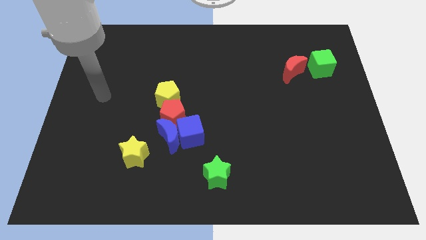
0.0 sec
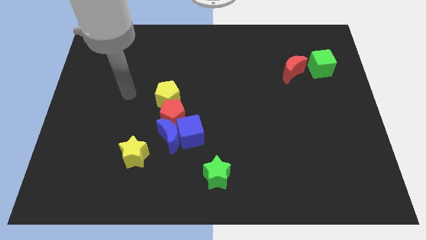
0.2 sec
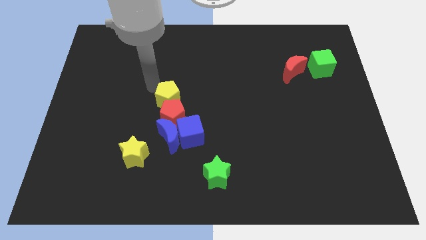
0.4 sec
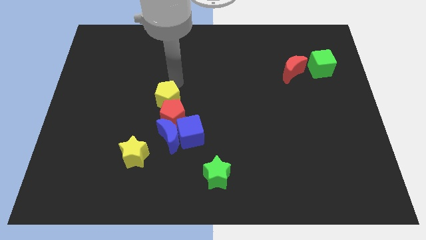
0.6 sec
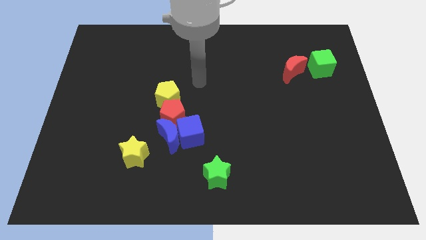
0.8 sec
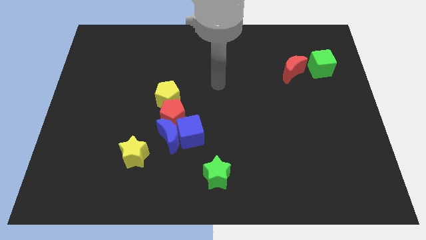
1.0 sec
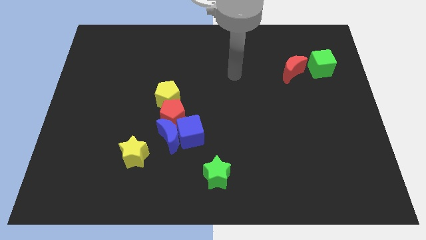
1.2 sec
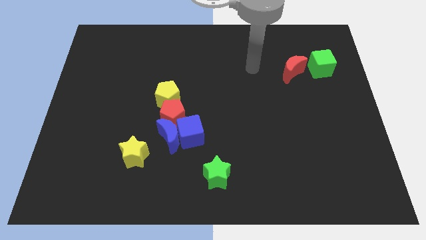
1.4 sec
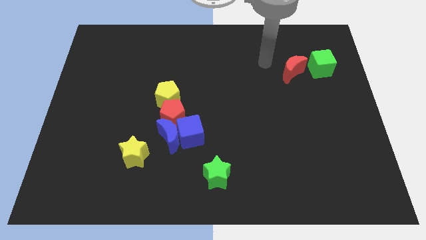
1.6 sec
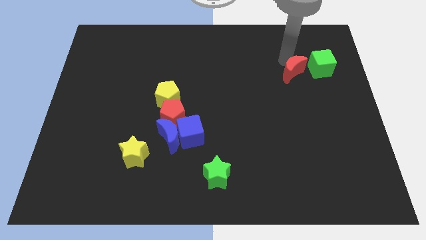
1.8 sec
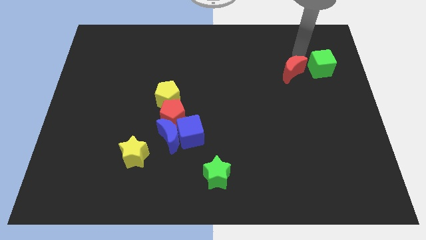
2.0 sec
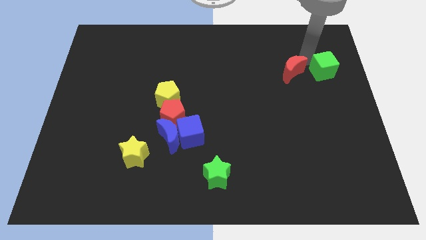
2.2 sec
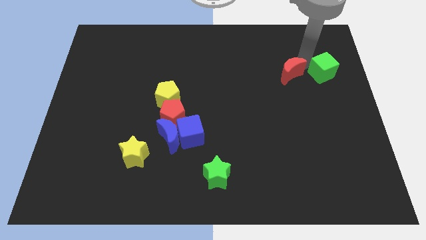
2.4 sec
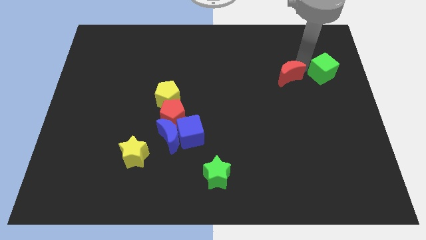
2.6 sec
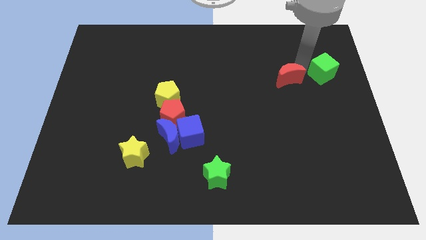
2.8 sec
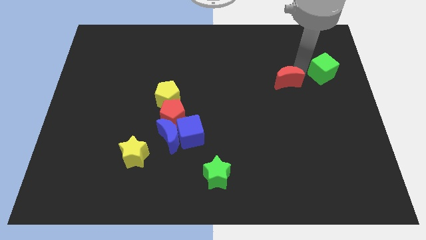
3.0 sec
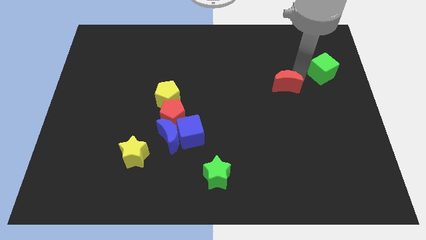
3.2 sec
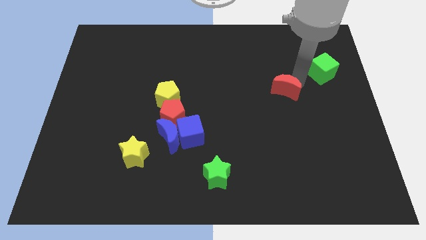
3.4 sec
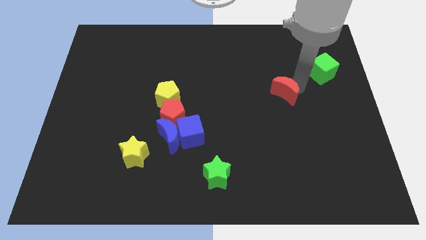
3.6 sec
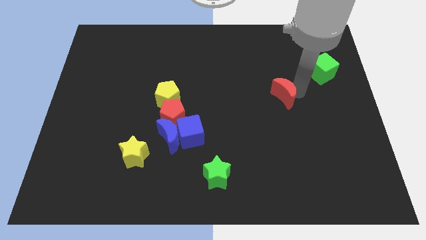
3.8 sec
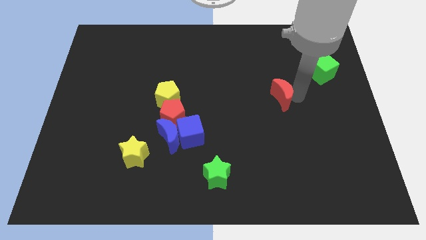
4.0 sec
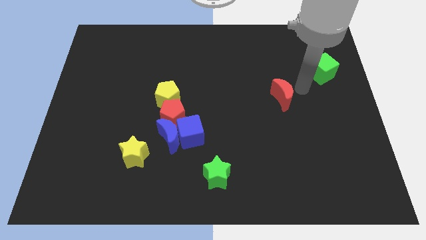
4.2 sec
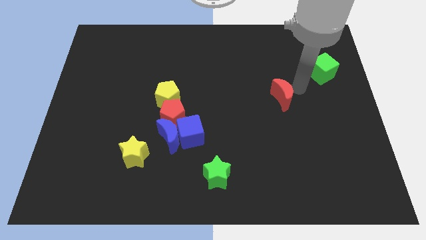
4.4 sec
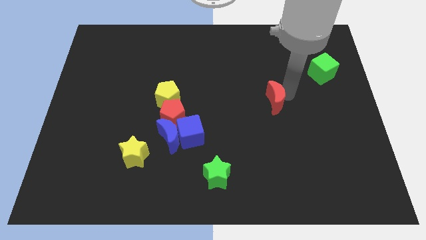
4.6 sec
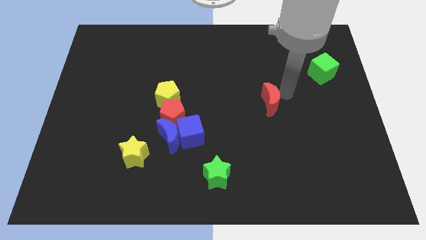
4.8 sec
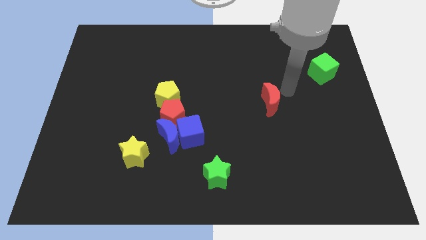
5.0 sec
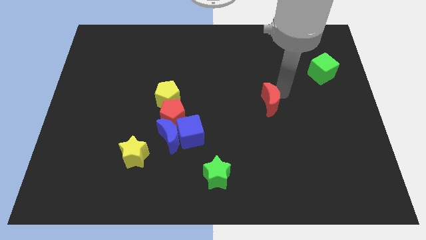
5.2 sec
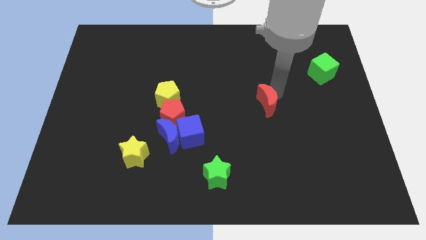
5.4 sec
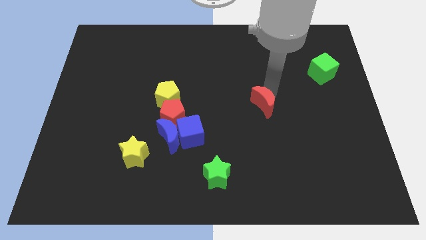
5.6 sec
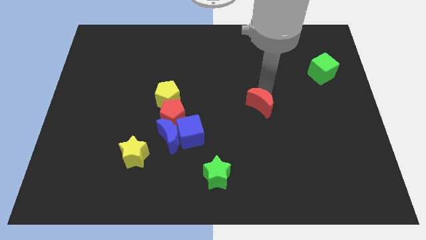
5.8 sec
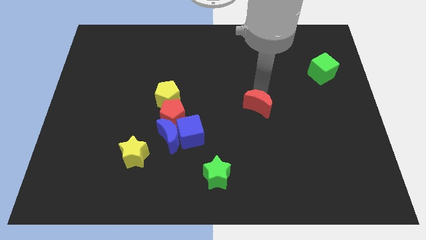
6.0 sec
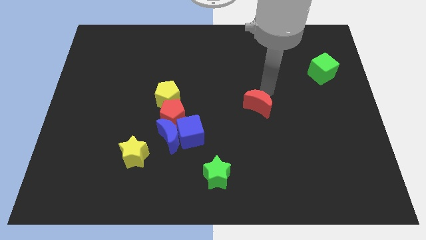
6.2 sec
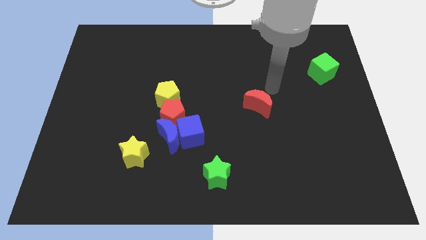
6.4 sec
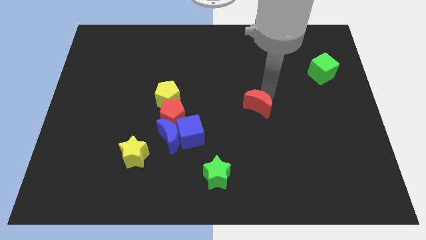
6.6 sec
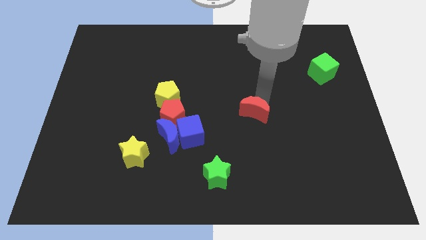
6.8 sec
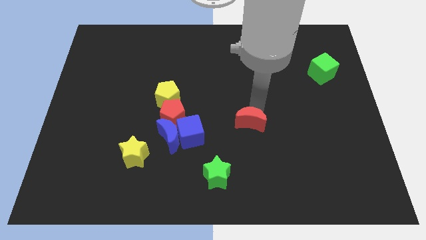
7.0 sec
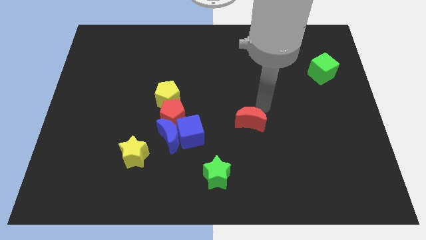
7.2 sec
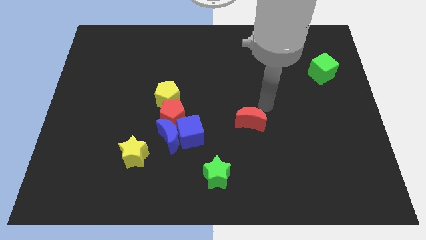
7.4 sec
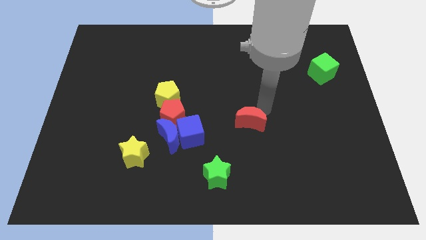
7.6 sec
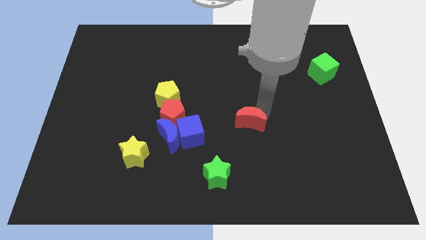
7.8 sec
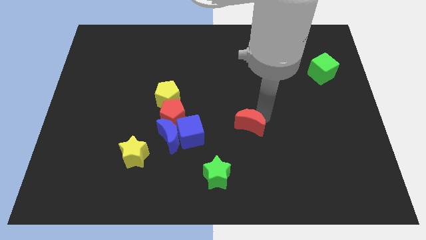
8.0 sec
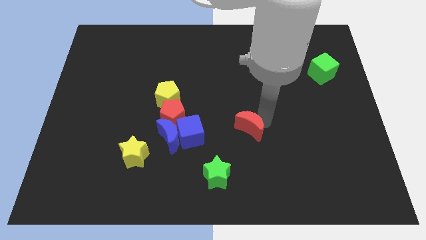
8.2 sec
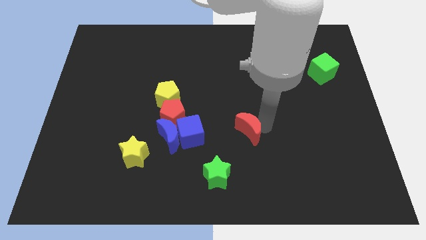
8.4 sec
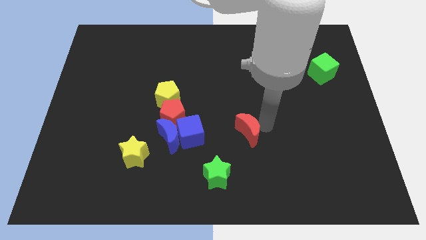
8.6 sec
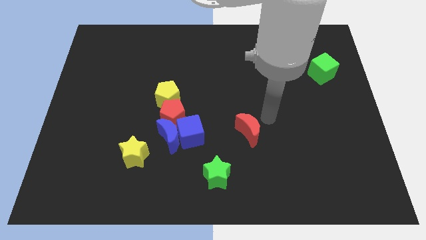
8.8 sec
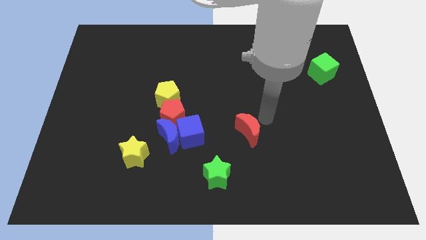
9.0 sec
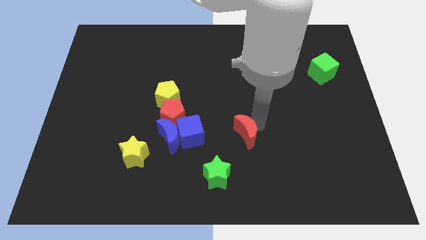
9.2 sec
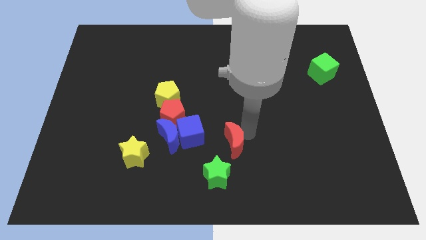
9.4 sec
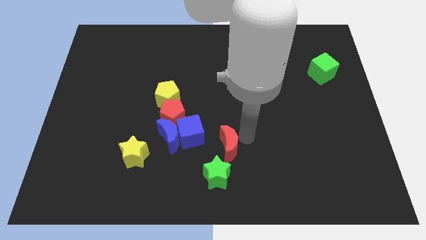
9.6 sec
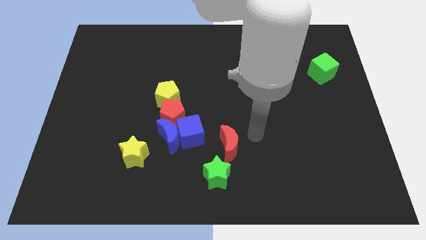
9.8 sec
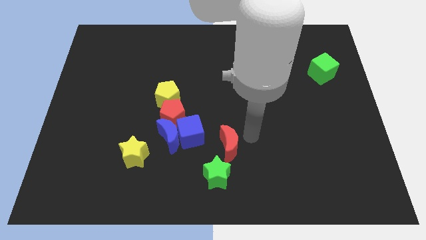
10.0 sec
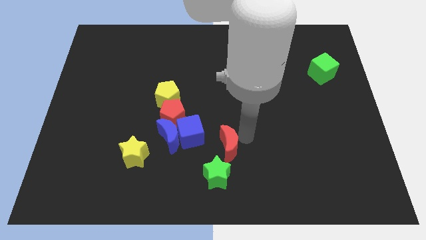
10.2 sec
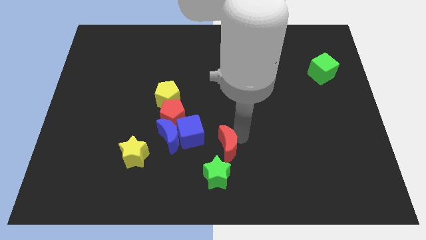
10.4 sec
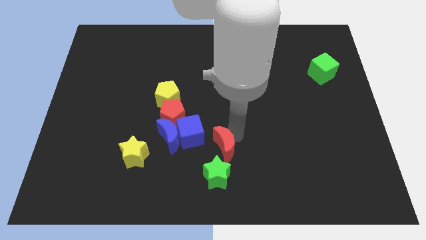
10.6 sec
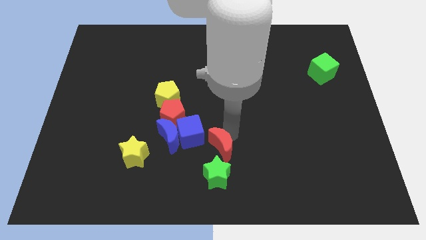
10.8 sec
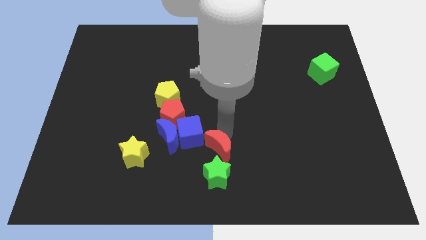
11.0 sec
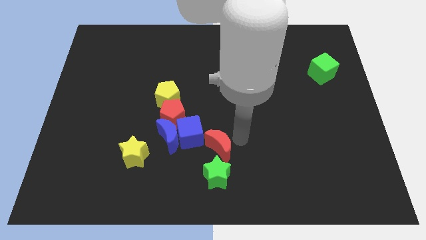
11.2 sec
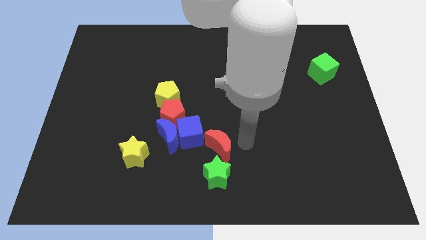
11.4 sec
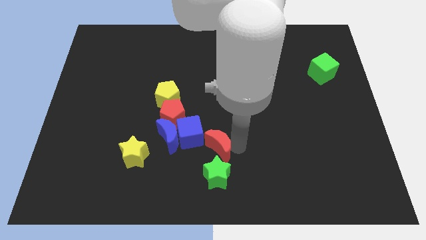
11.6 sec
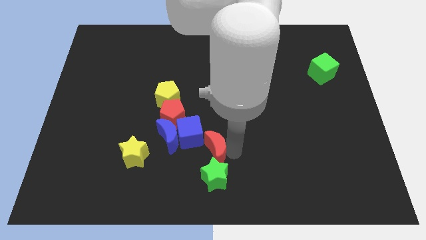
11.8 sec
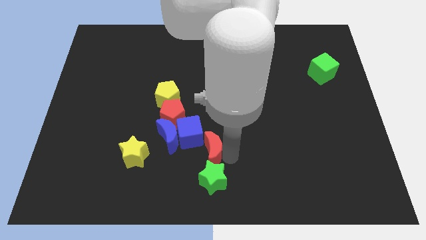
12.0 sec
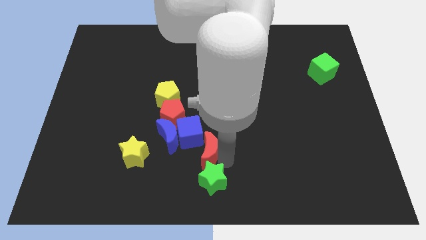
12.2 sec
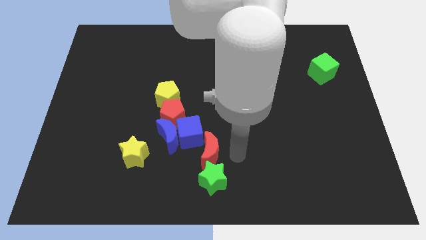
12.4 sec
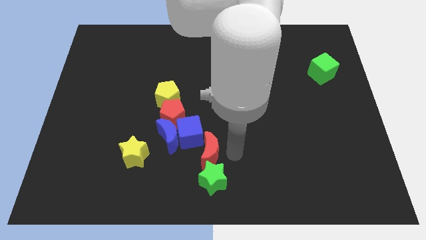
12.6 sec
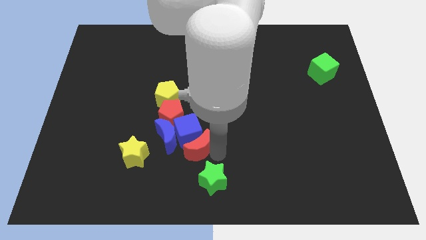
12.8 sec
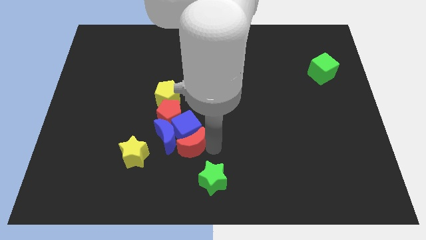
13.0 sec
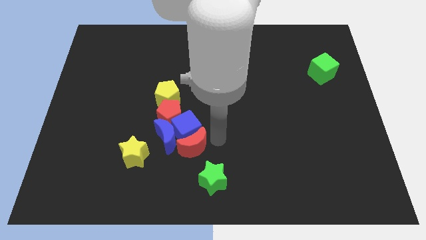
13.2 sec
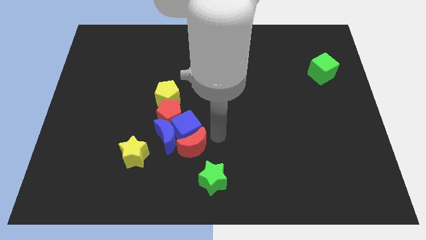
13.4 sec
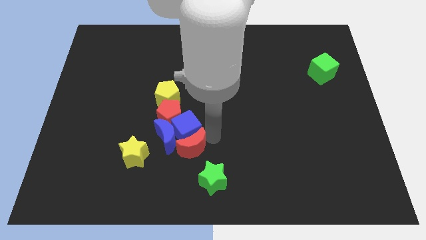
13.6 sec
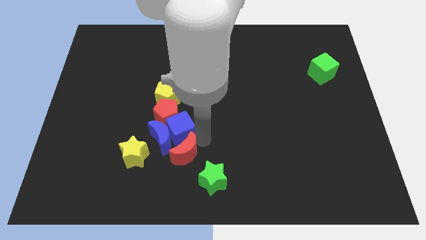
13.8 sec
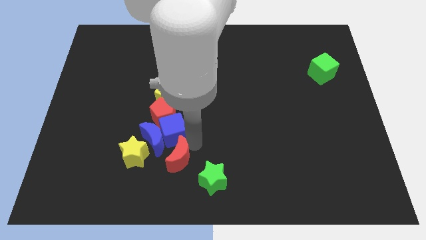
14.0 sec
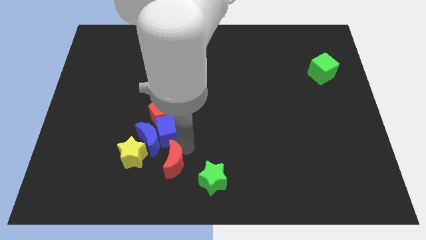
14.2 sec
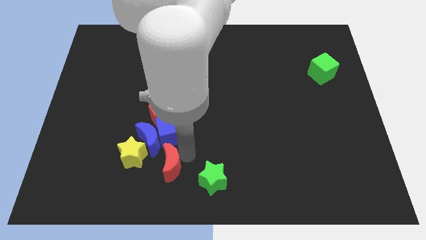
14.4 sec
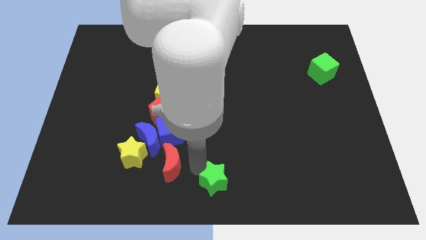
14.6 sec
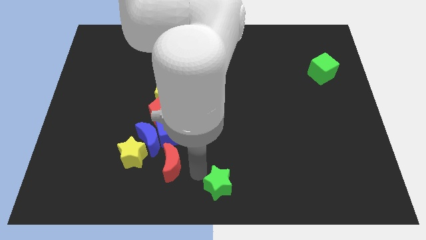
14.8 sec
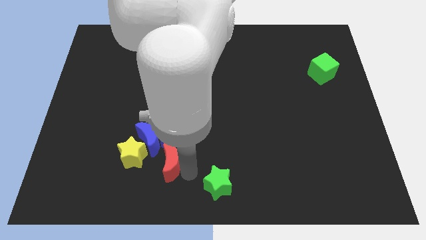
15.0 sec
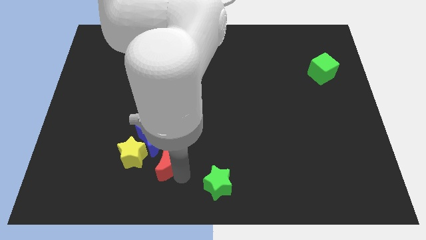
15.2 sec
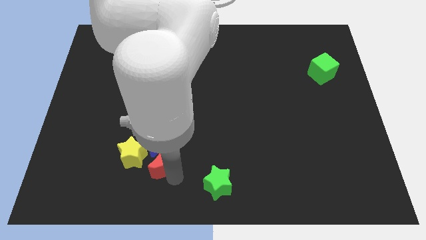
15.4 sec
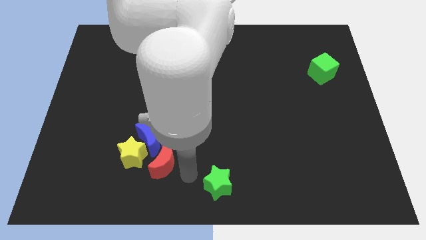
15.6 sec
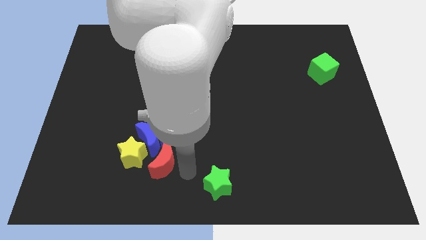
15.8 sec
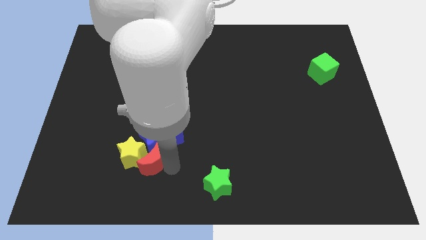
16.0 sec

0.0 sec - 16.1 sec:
put the red moon close to the yellow star
